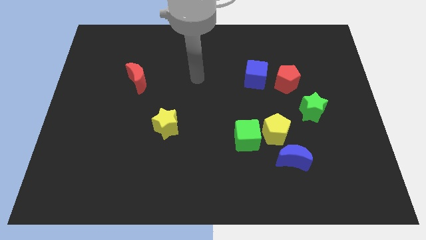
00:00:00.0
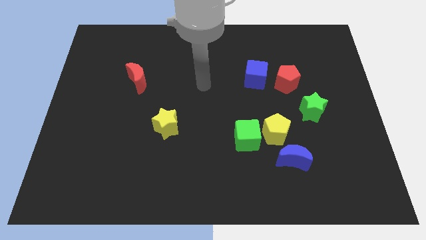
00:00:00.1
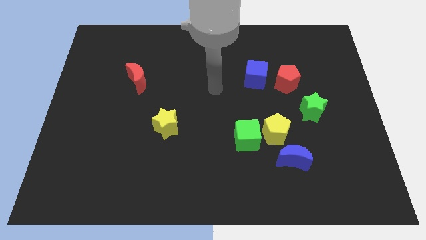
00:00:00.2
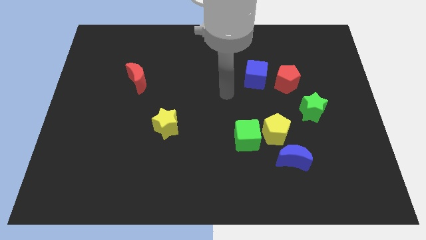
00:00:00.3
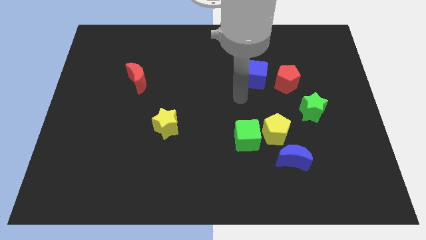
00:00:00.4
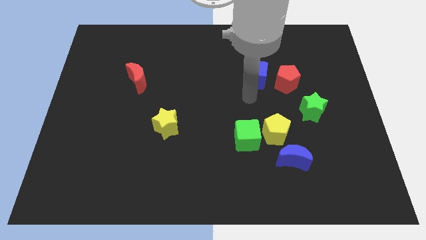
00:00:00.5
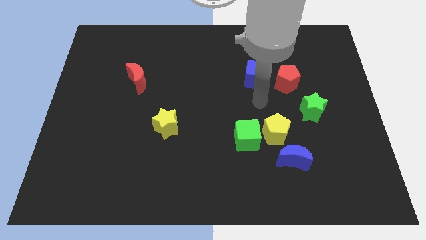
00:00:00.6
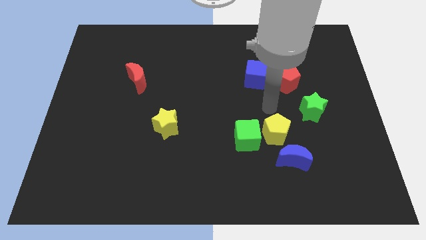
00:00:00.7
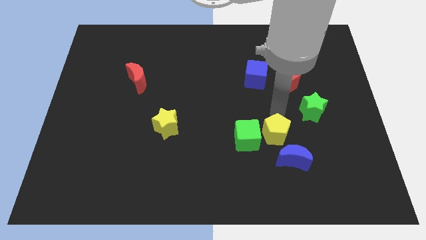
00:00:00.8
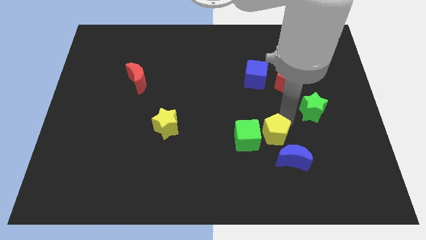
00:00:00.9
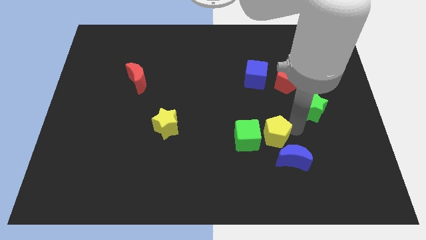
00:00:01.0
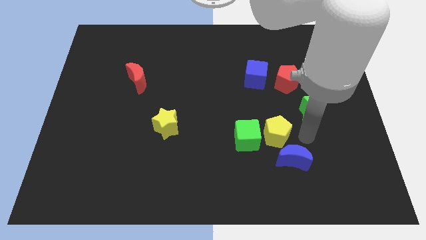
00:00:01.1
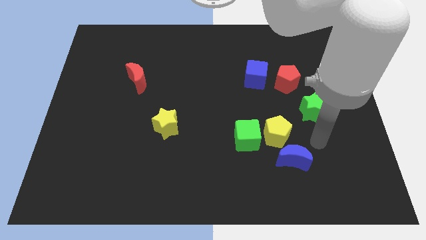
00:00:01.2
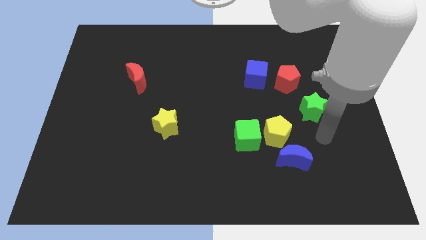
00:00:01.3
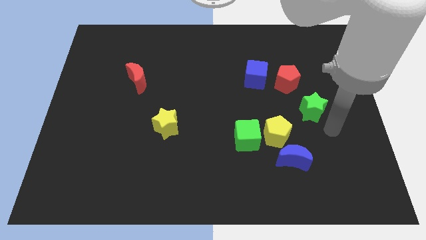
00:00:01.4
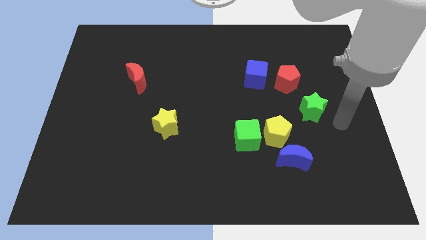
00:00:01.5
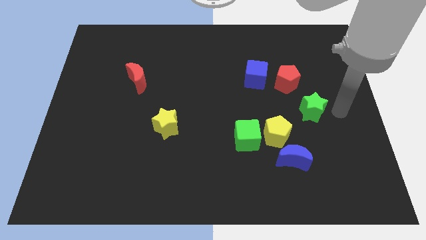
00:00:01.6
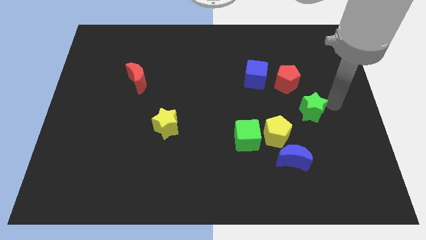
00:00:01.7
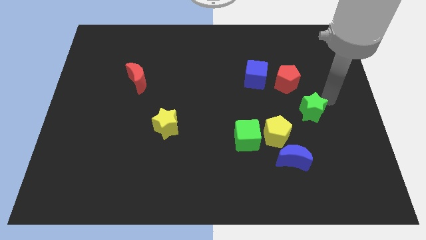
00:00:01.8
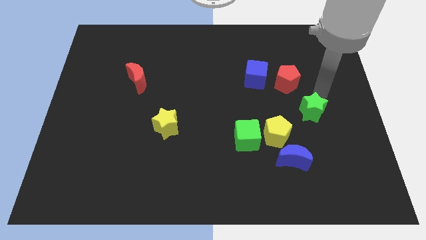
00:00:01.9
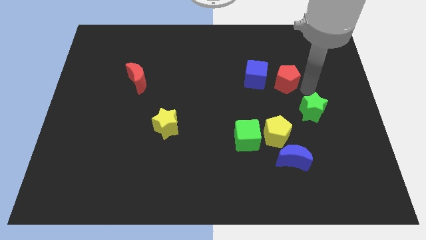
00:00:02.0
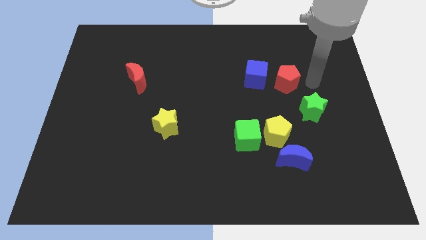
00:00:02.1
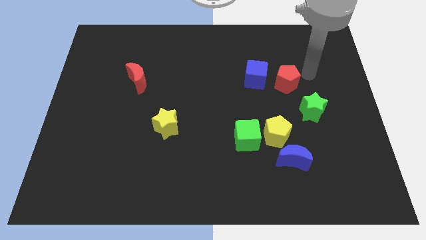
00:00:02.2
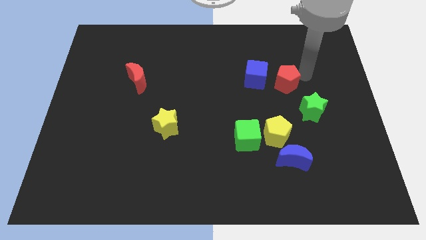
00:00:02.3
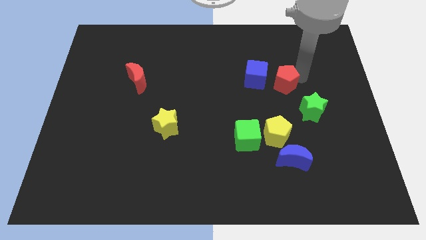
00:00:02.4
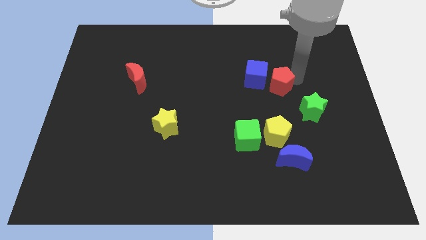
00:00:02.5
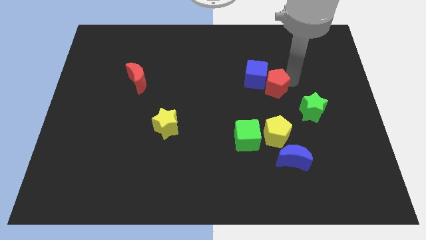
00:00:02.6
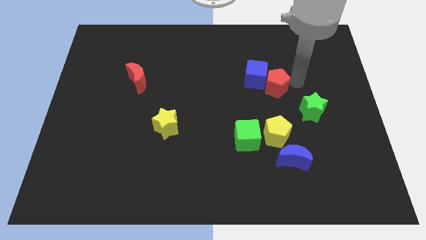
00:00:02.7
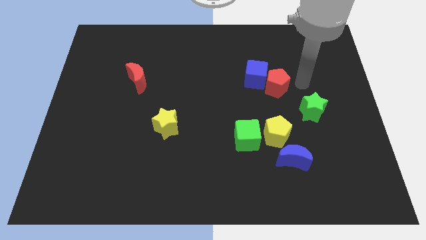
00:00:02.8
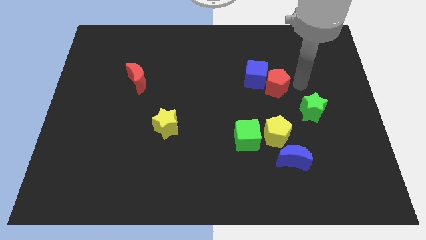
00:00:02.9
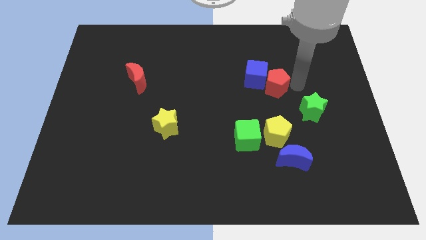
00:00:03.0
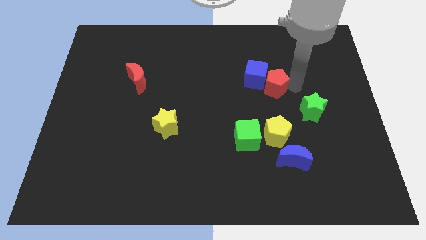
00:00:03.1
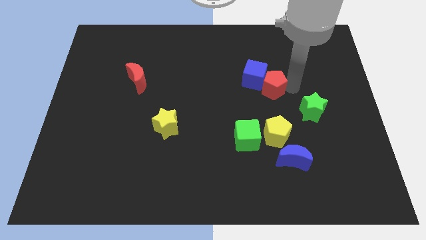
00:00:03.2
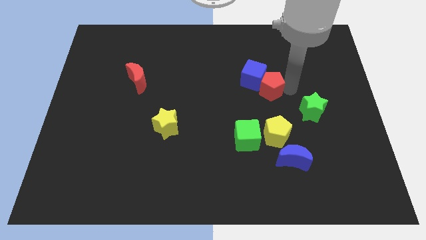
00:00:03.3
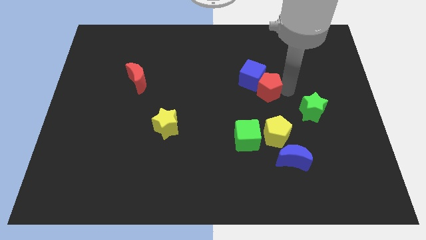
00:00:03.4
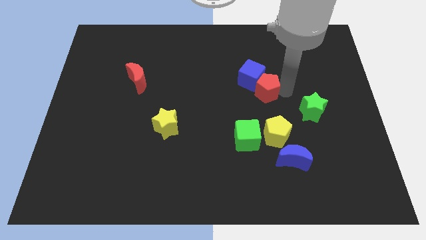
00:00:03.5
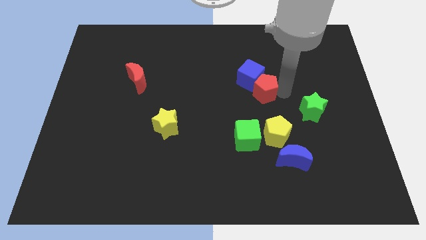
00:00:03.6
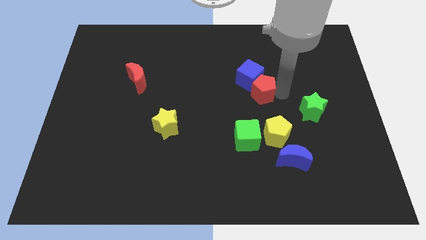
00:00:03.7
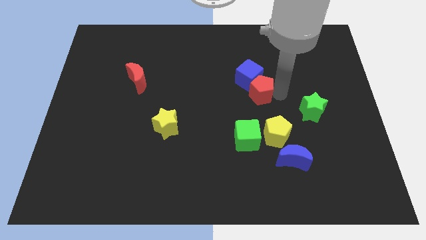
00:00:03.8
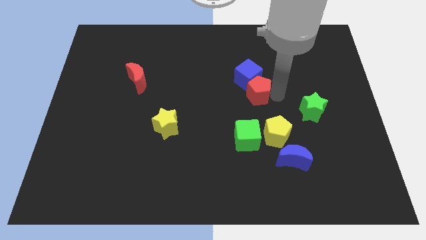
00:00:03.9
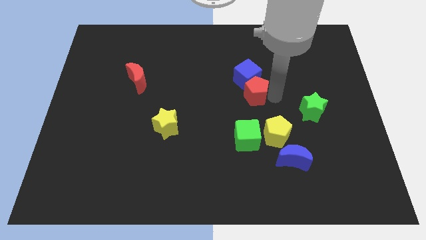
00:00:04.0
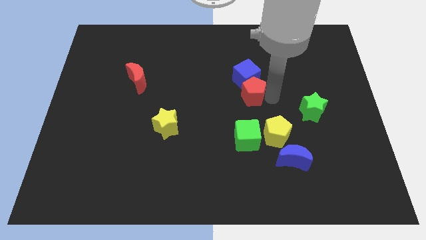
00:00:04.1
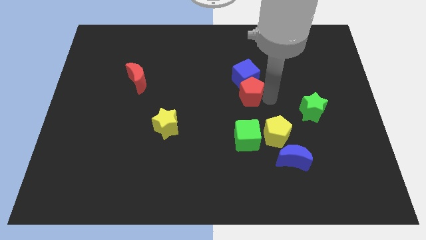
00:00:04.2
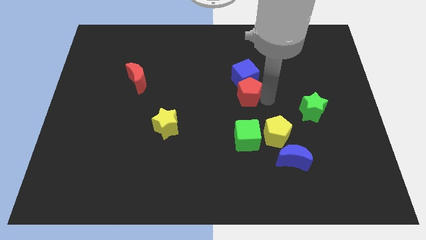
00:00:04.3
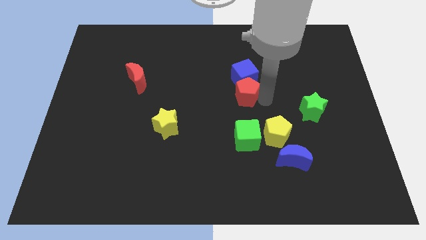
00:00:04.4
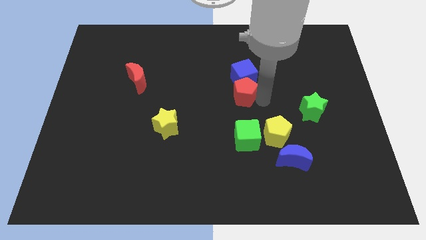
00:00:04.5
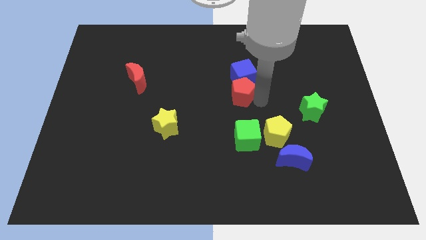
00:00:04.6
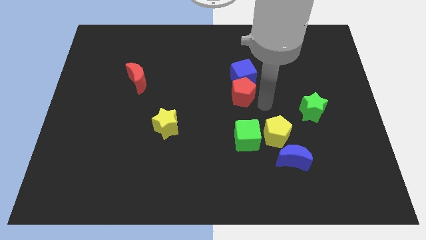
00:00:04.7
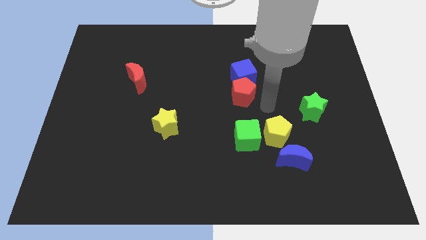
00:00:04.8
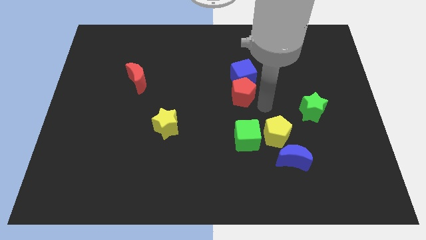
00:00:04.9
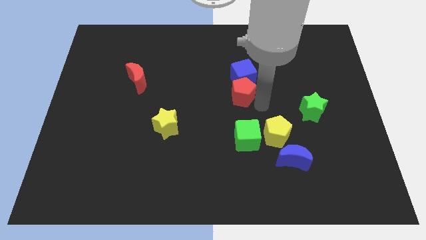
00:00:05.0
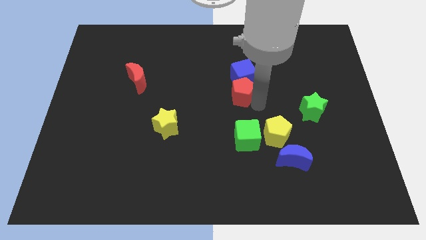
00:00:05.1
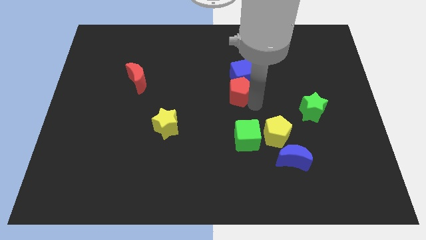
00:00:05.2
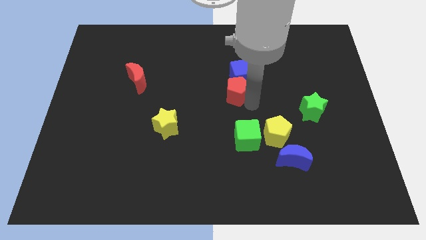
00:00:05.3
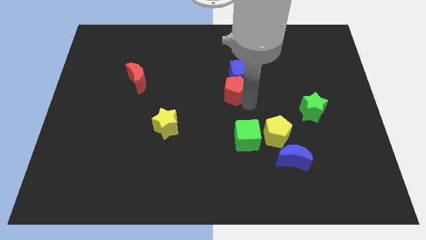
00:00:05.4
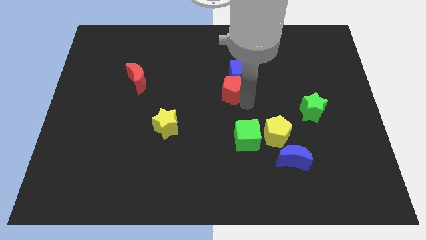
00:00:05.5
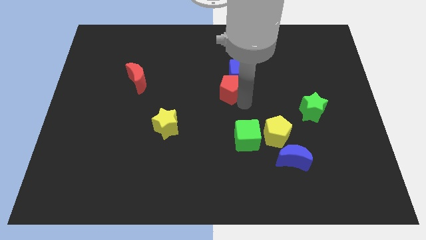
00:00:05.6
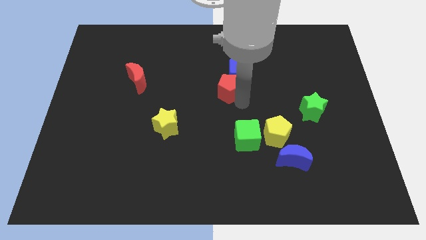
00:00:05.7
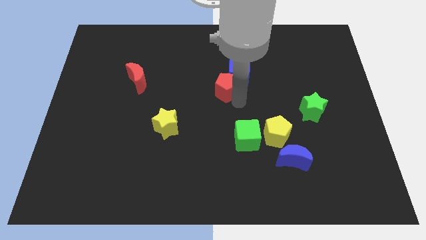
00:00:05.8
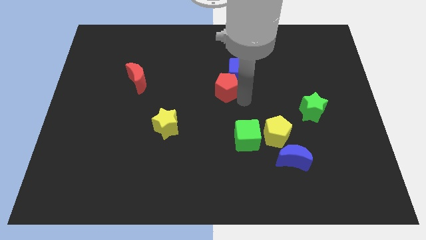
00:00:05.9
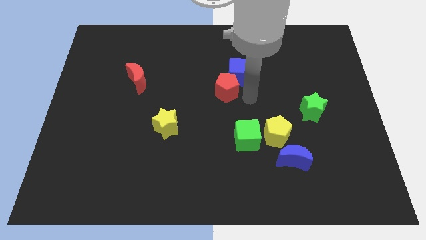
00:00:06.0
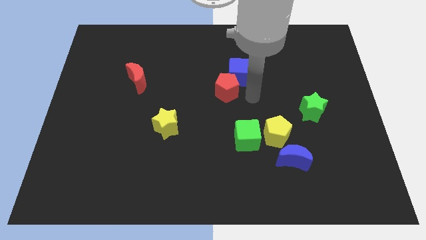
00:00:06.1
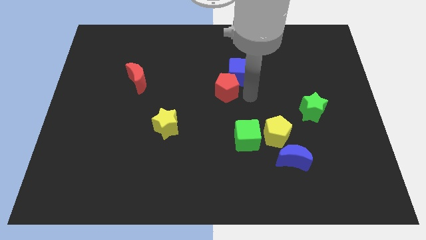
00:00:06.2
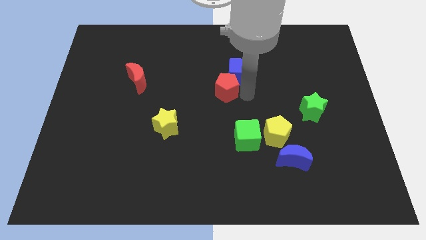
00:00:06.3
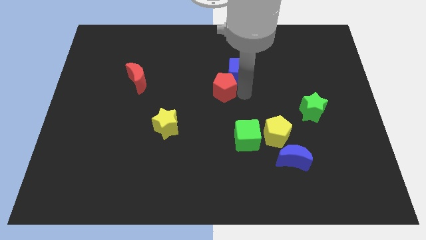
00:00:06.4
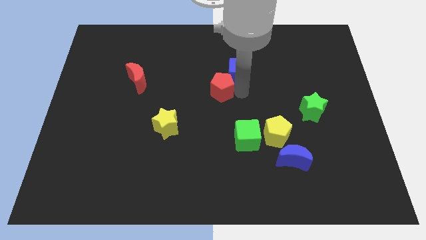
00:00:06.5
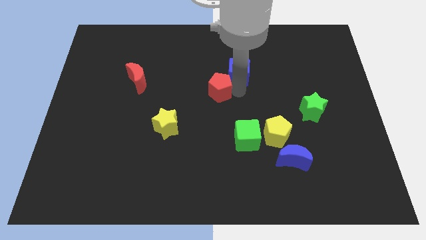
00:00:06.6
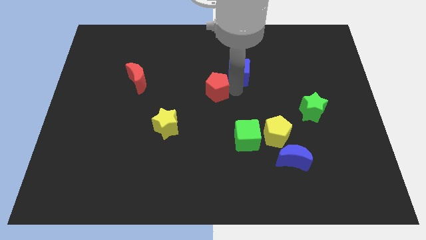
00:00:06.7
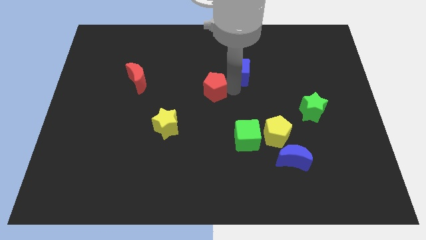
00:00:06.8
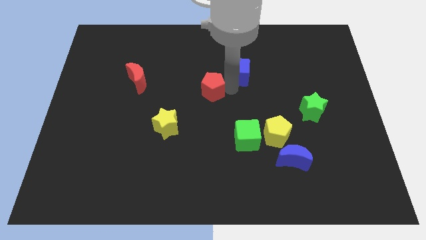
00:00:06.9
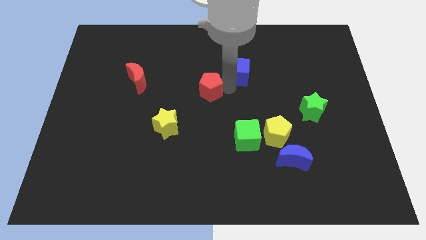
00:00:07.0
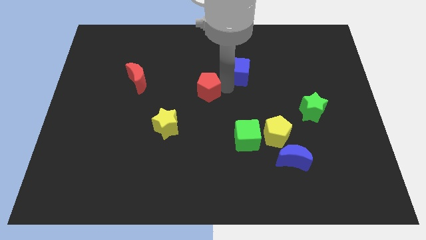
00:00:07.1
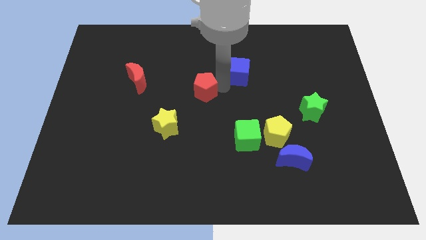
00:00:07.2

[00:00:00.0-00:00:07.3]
push the red pentagon to the left

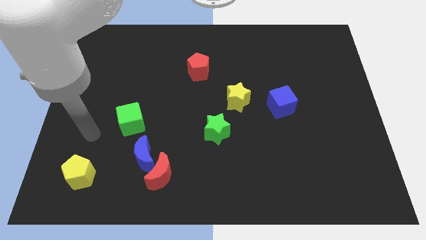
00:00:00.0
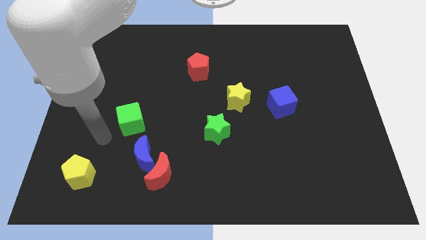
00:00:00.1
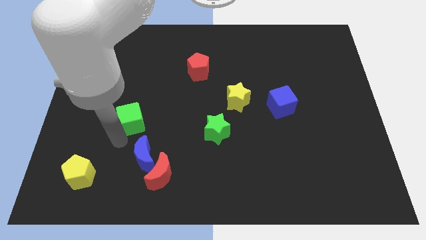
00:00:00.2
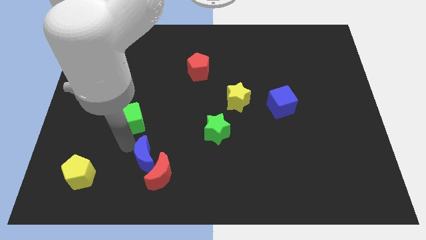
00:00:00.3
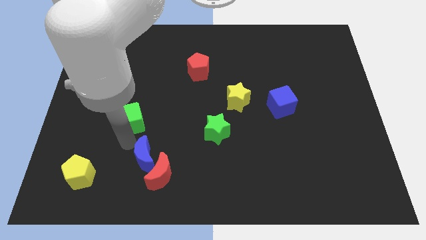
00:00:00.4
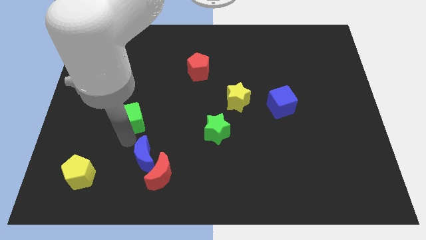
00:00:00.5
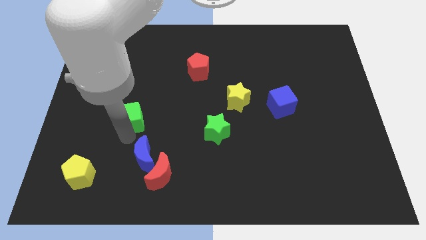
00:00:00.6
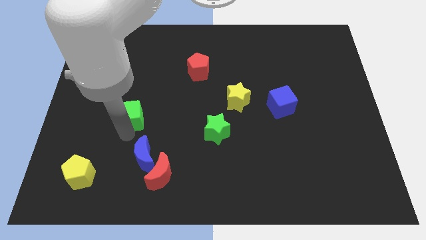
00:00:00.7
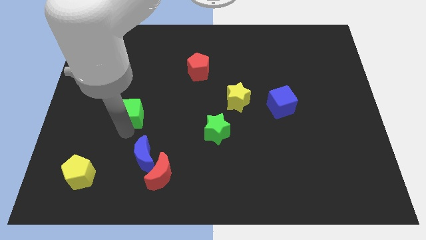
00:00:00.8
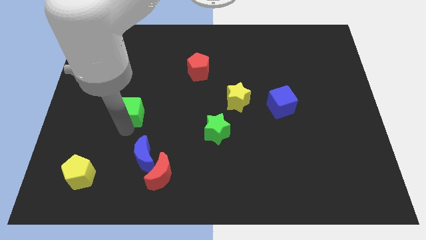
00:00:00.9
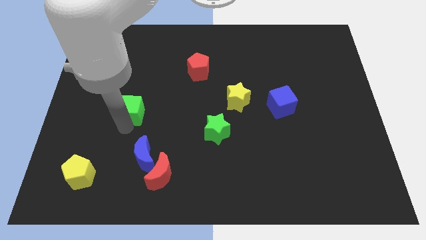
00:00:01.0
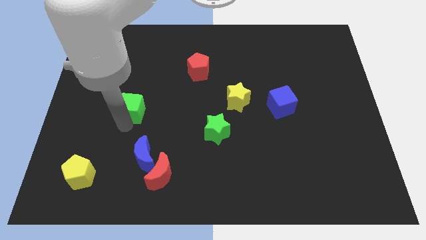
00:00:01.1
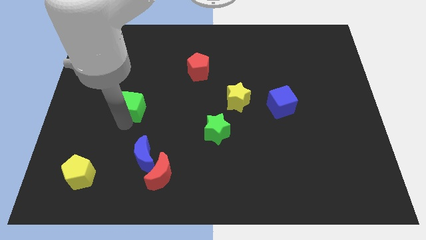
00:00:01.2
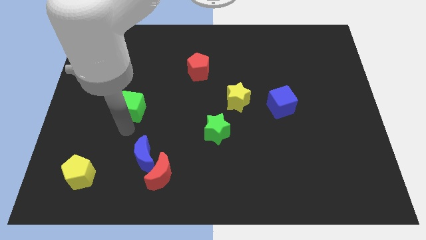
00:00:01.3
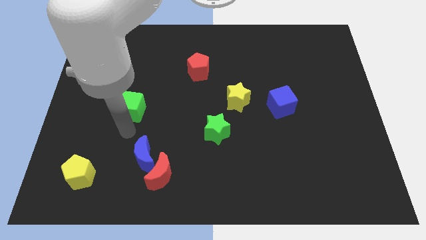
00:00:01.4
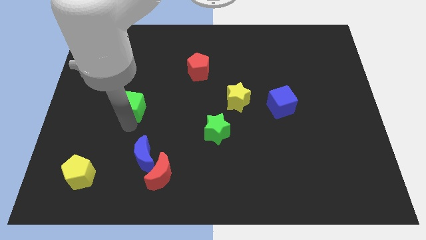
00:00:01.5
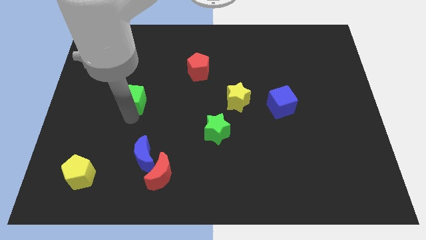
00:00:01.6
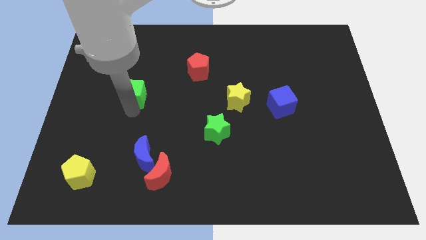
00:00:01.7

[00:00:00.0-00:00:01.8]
move the green cube upwards a bit
